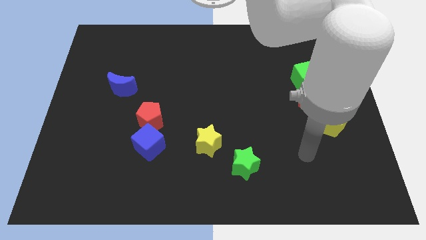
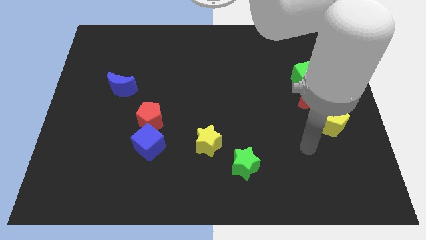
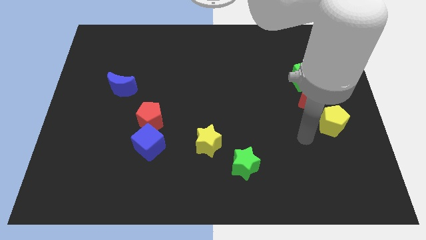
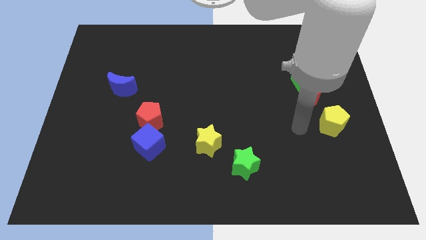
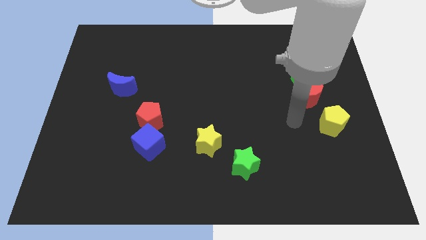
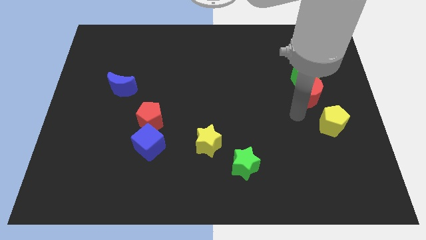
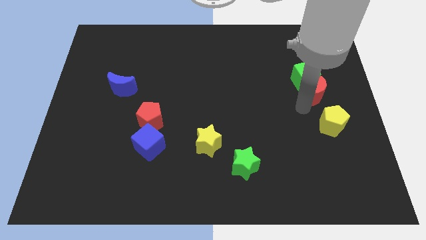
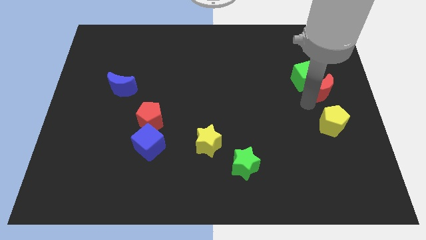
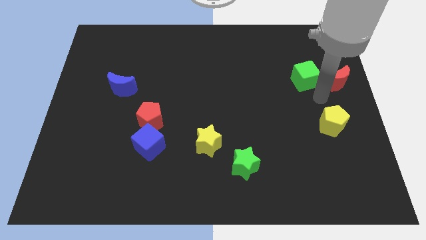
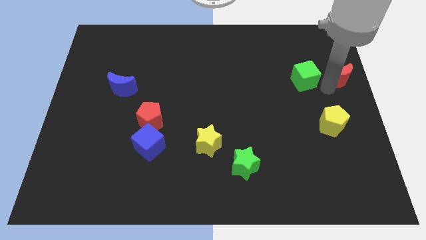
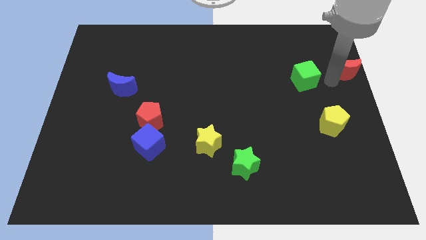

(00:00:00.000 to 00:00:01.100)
move the green cube away from the red moon

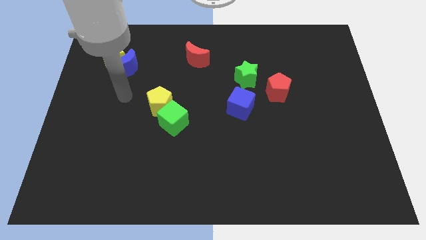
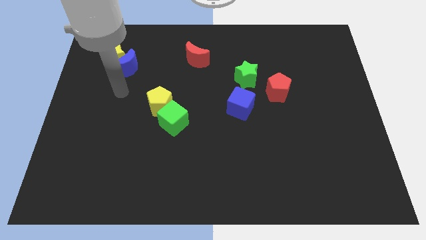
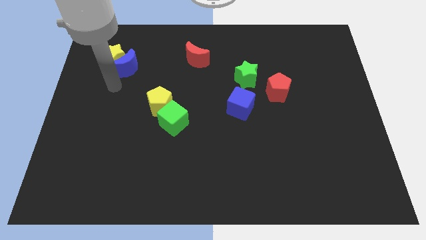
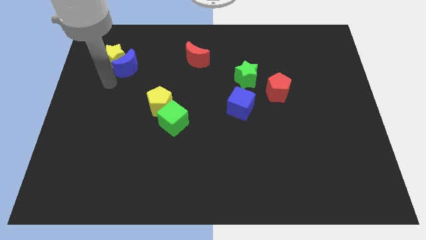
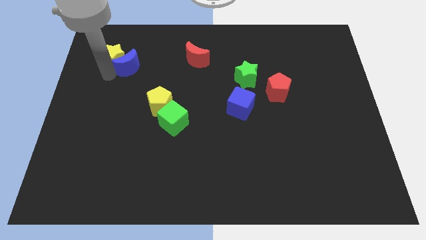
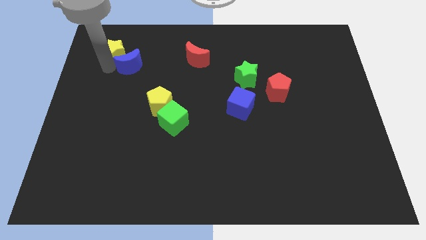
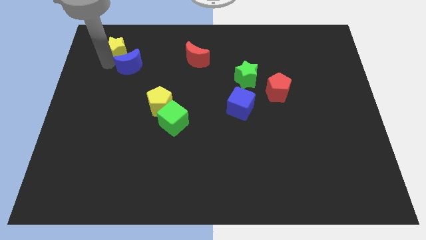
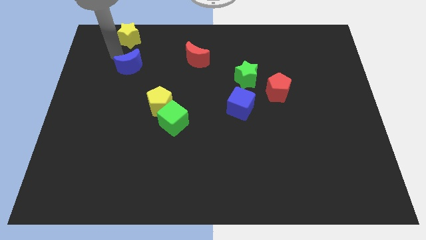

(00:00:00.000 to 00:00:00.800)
pull the blue moon apart from the yellow star

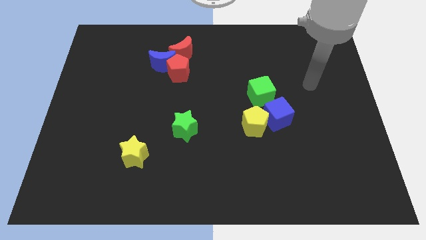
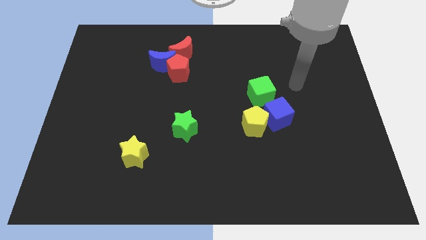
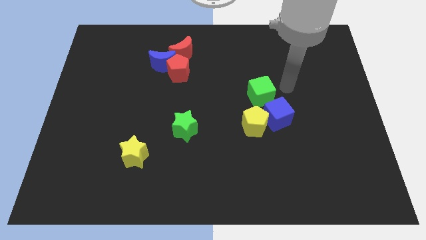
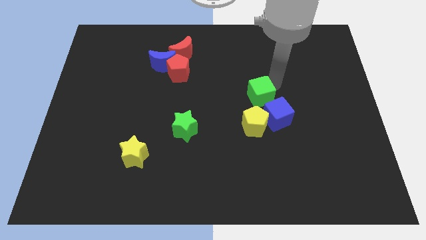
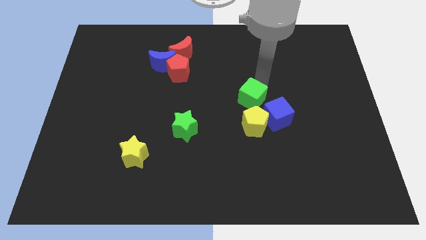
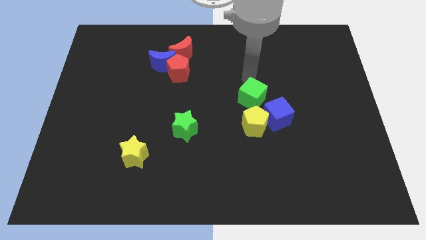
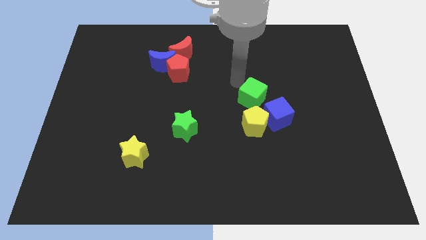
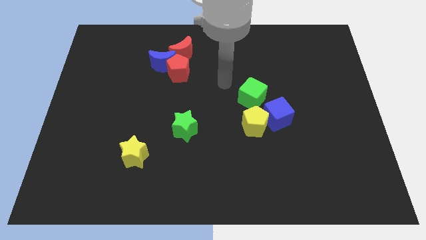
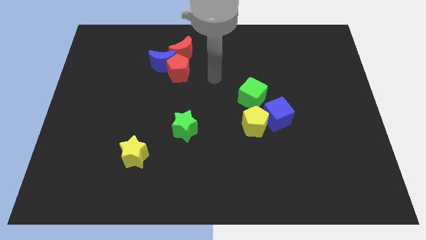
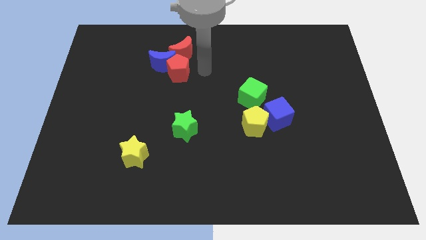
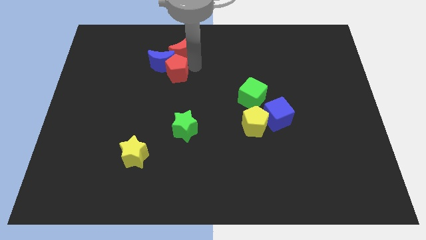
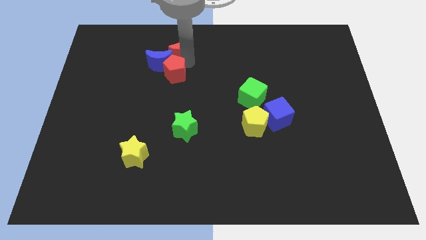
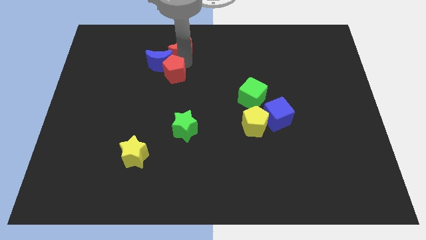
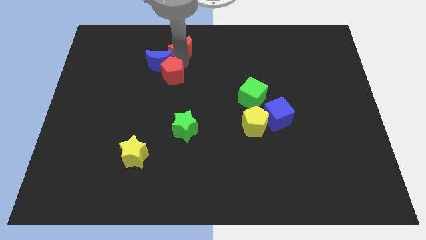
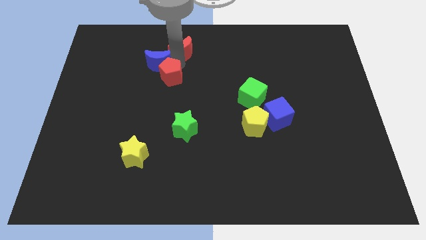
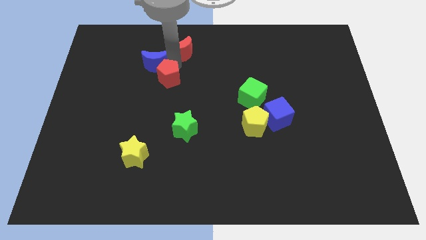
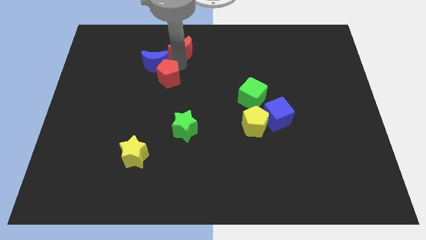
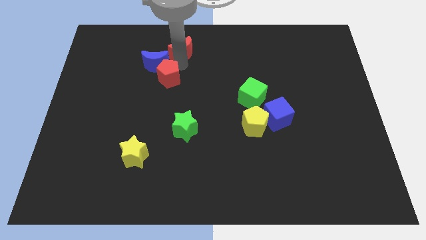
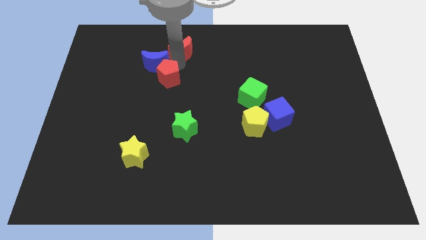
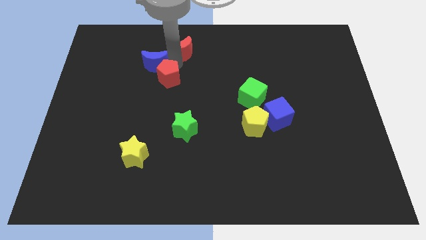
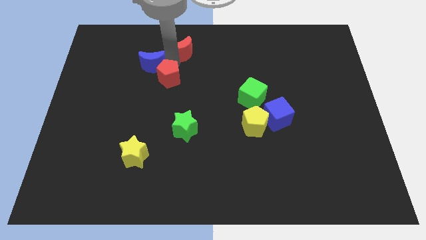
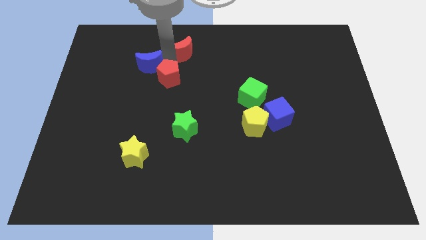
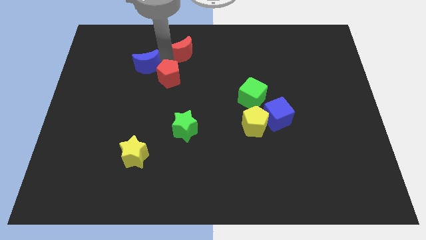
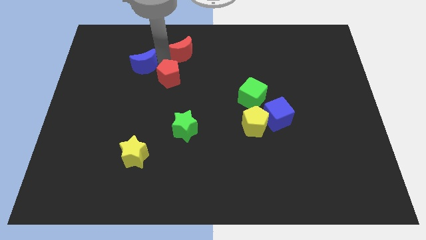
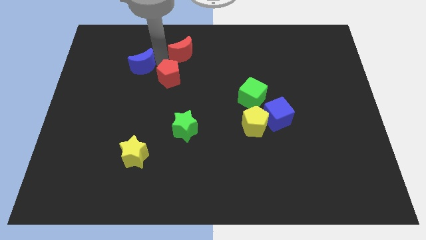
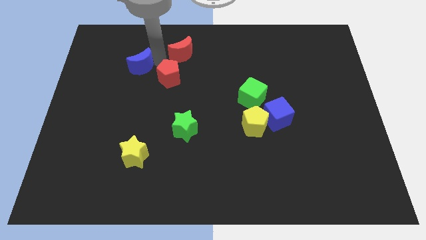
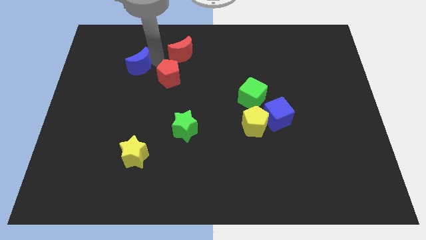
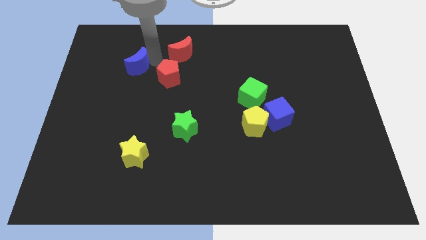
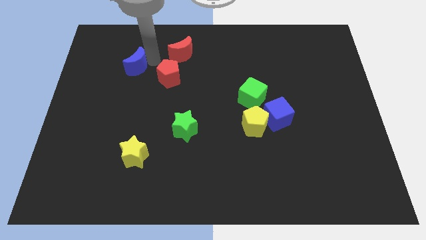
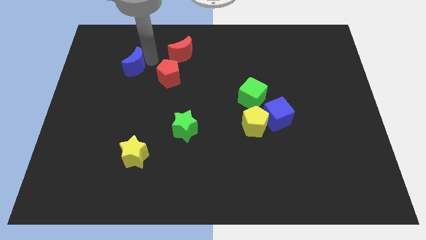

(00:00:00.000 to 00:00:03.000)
pull the blue moon apart from the red pentagon and red moon

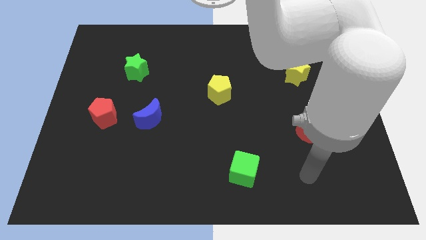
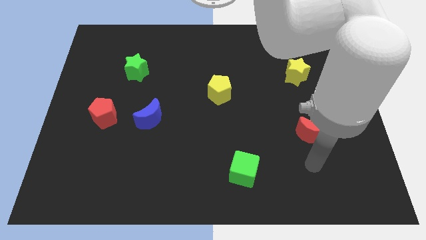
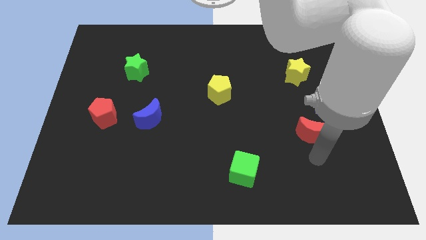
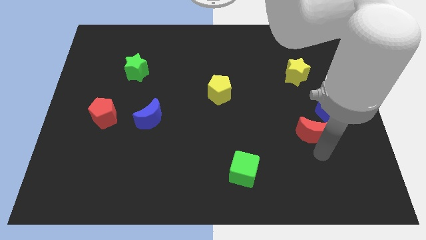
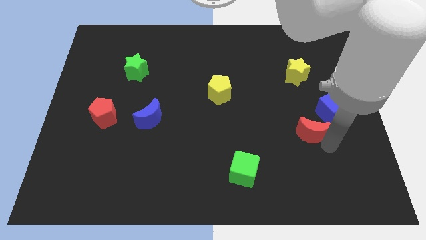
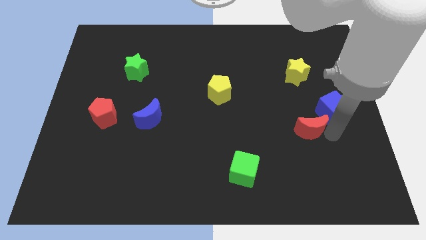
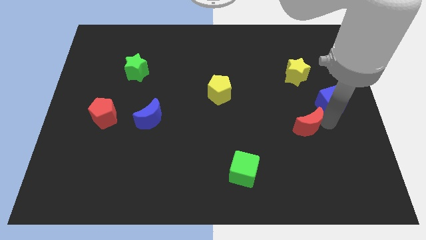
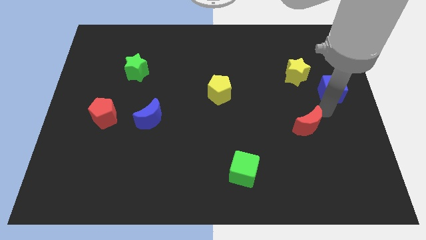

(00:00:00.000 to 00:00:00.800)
pull the red moon apart from the blue cube

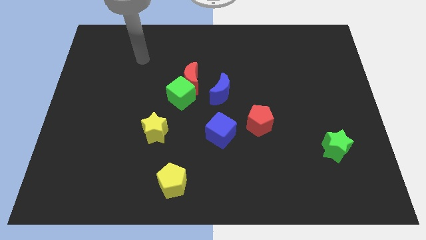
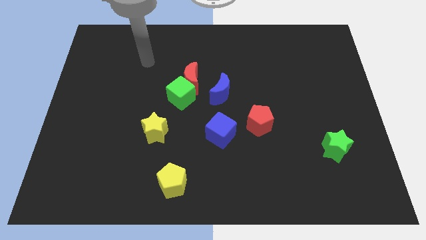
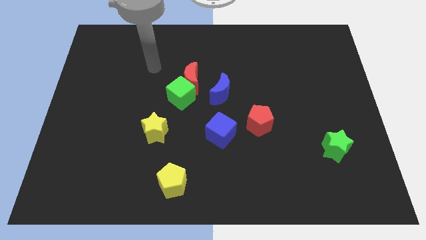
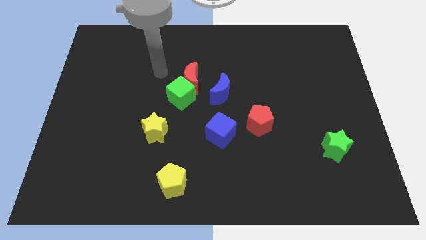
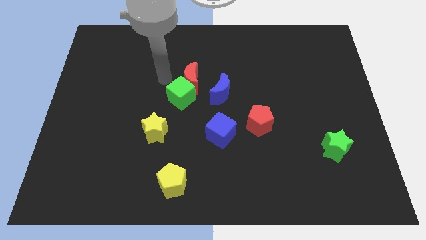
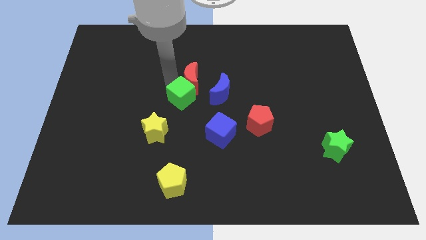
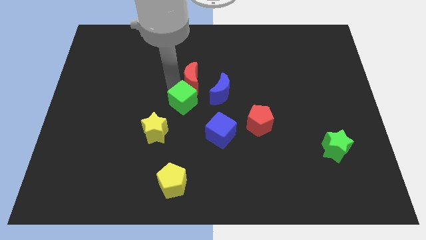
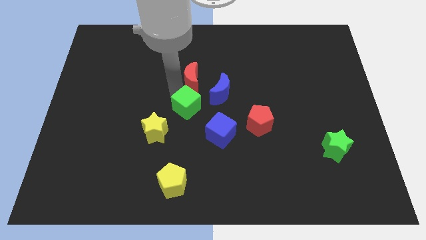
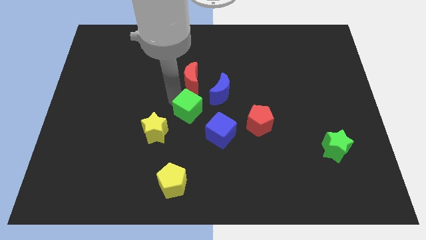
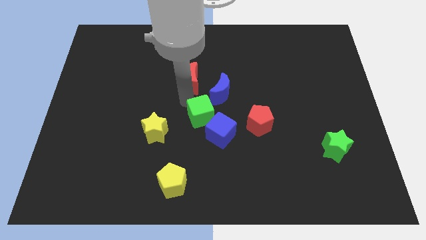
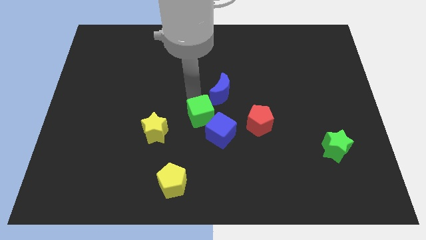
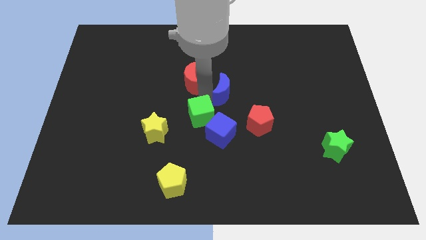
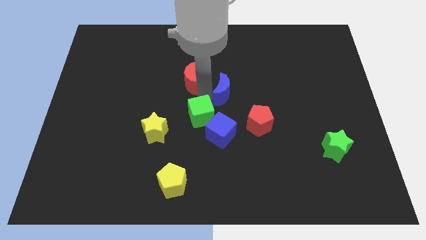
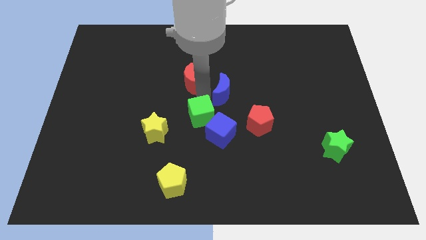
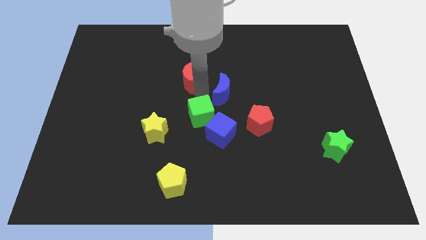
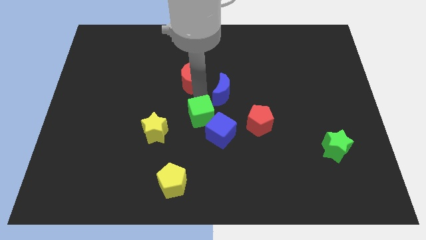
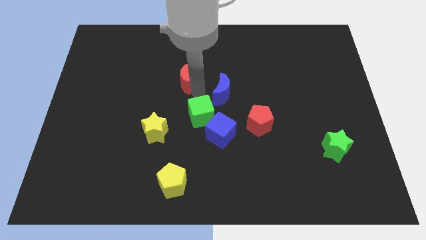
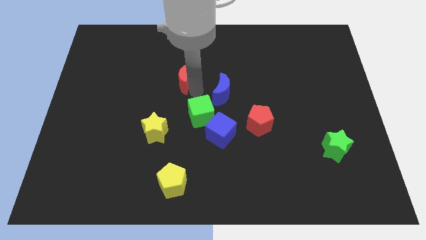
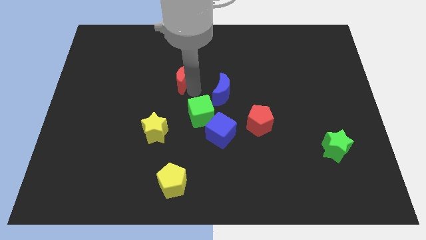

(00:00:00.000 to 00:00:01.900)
separate the red moon from the green cube and blue moon

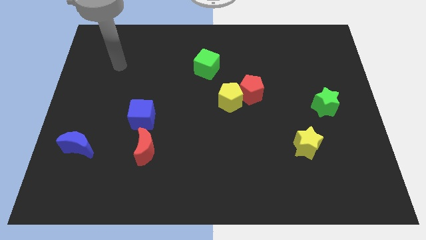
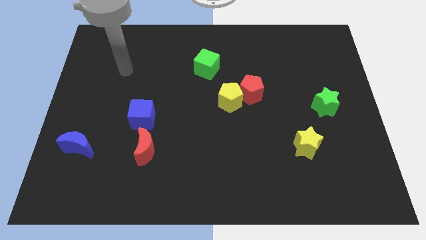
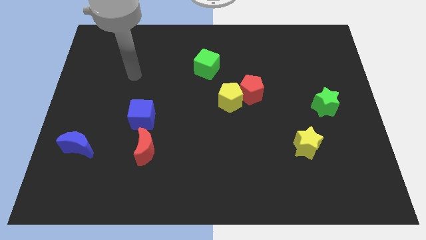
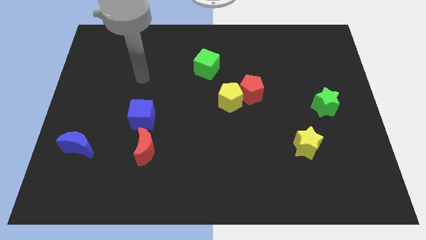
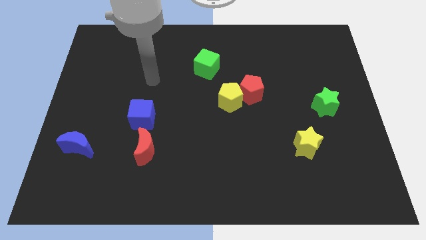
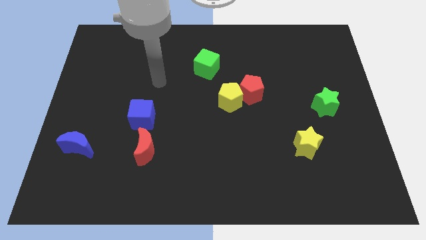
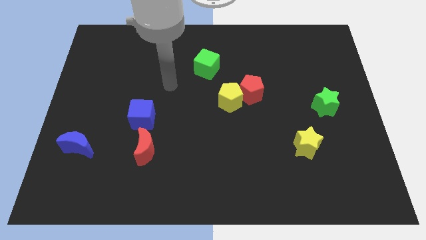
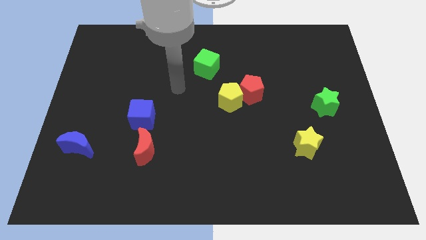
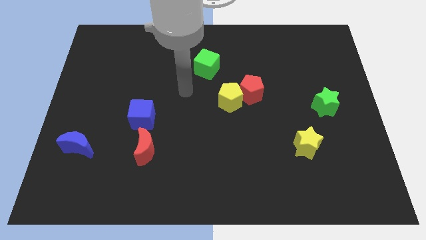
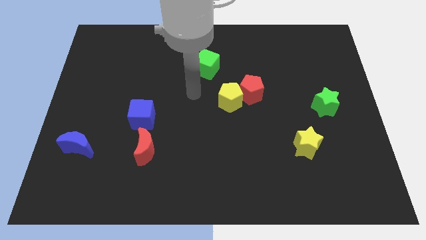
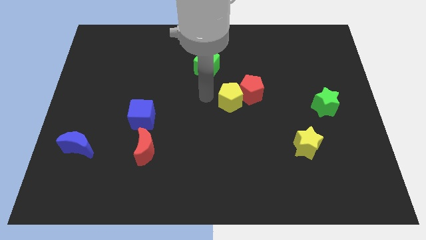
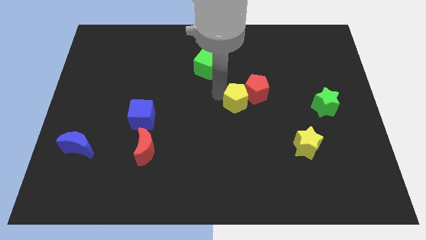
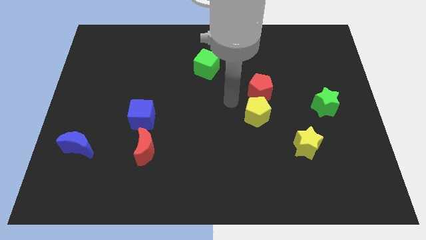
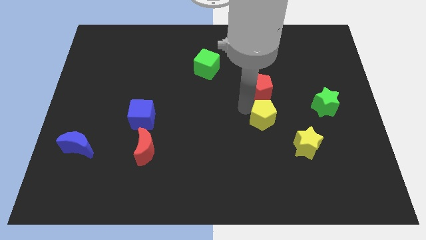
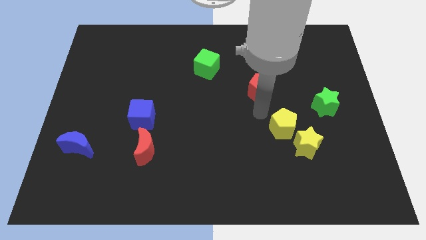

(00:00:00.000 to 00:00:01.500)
pull the red pentagon apart from the yellow pentagon

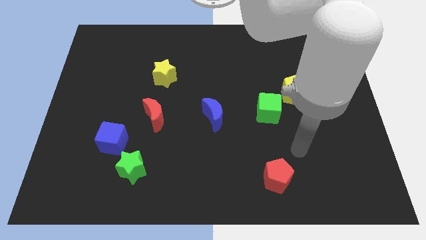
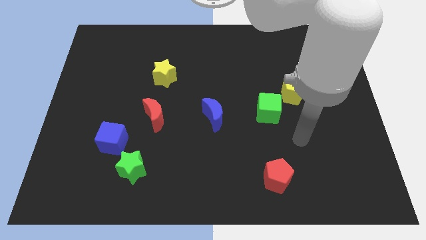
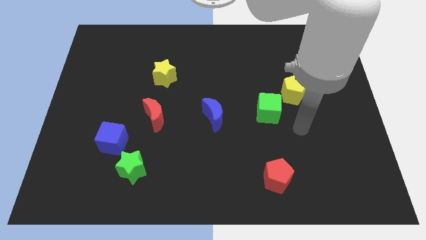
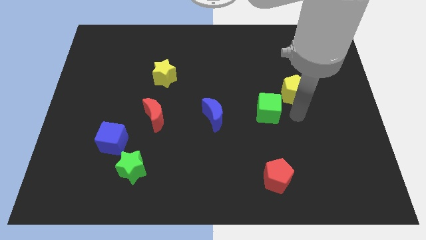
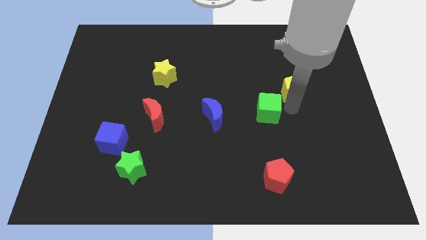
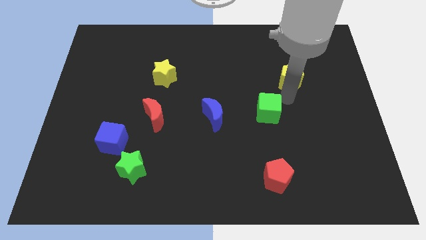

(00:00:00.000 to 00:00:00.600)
move the green cube away from the yellow pentagon
